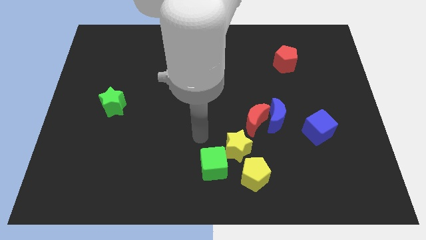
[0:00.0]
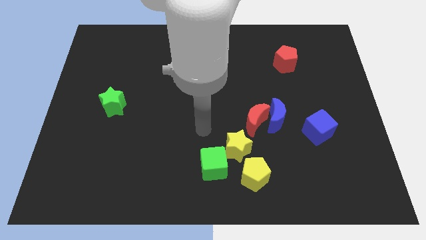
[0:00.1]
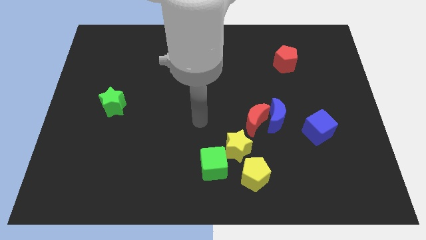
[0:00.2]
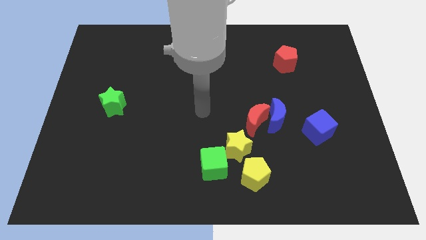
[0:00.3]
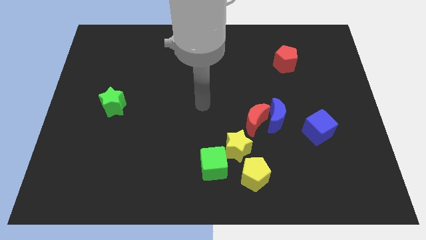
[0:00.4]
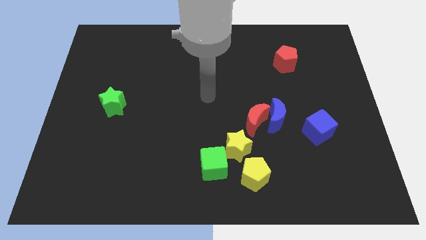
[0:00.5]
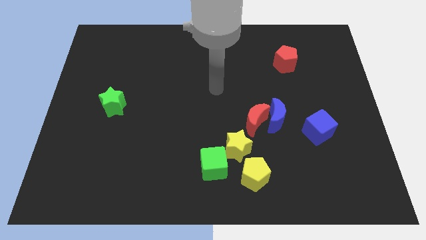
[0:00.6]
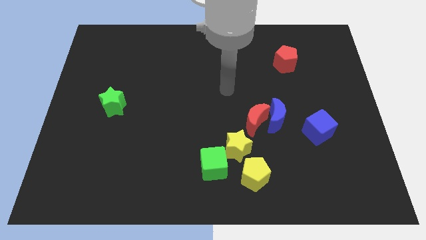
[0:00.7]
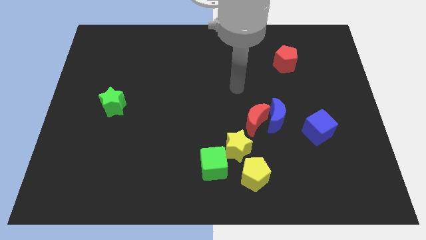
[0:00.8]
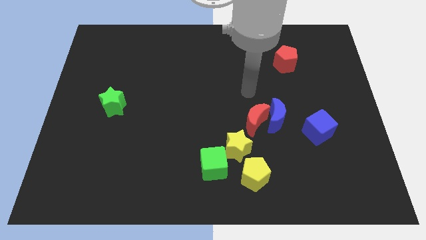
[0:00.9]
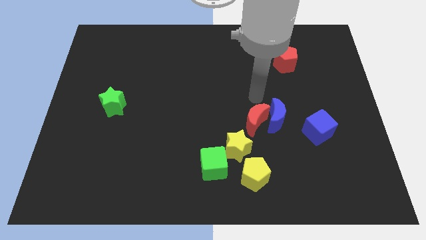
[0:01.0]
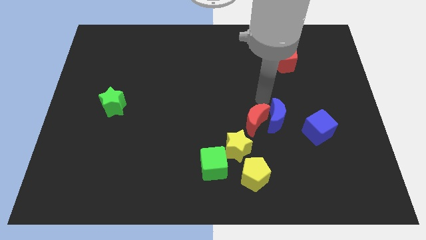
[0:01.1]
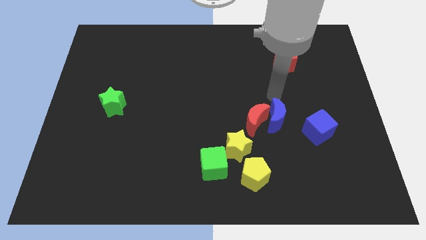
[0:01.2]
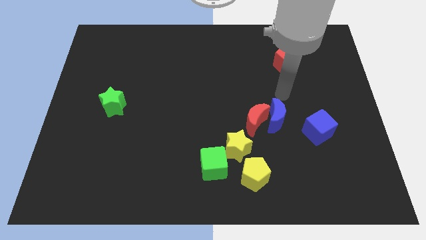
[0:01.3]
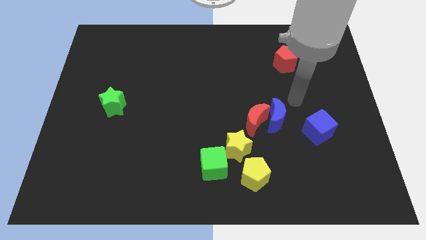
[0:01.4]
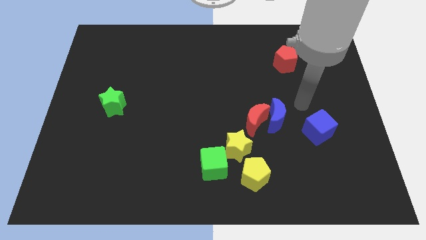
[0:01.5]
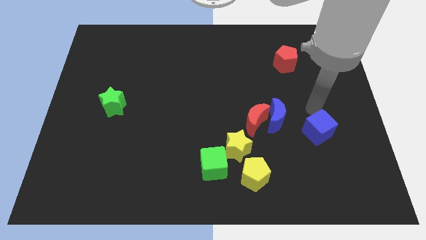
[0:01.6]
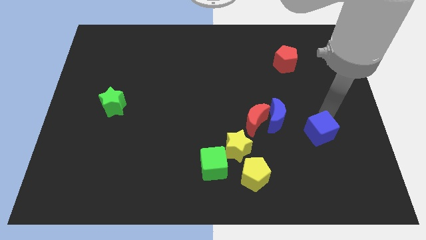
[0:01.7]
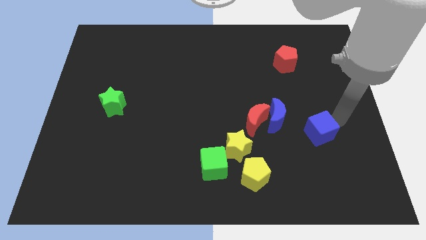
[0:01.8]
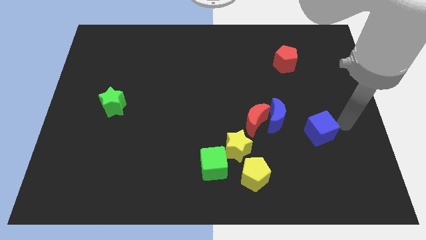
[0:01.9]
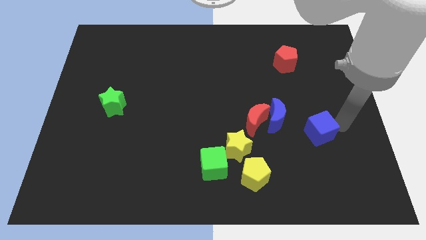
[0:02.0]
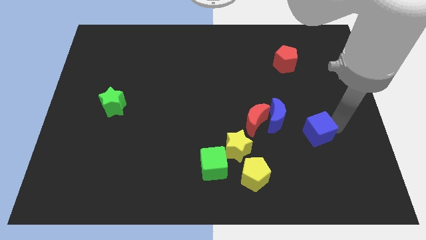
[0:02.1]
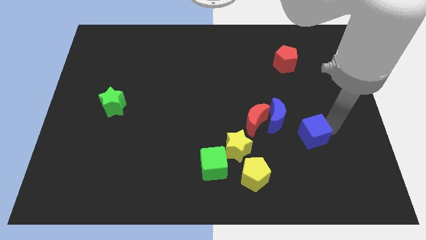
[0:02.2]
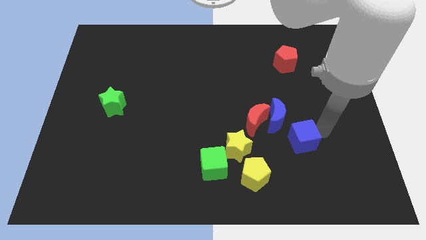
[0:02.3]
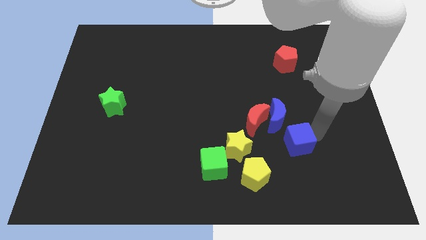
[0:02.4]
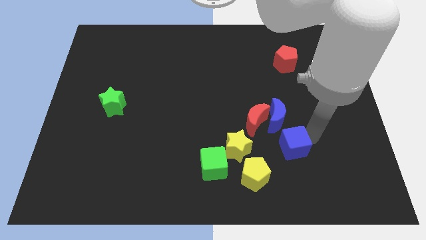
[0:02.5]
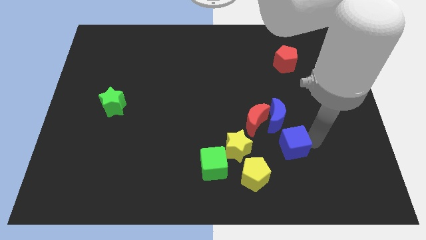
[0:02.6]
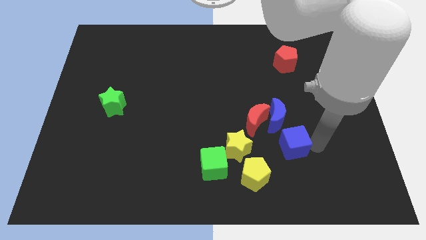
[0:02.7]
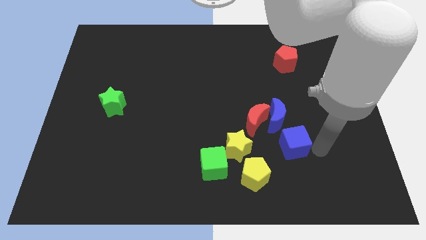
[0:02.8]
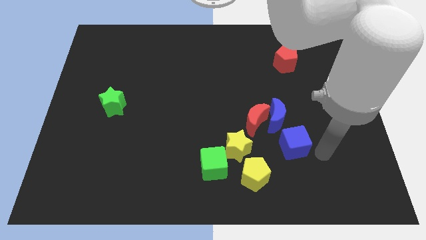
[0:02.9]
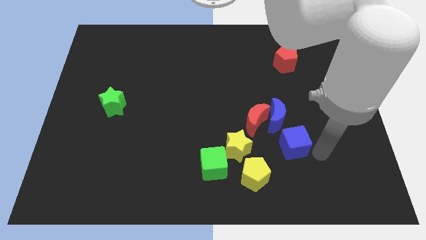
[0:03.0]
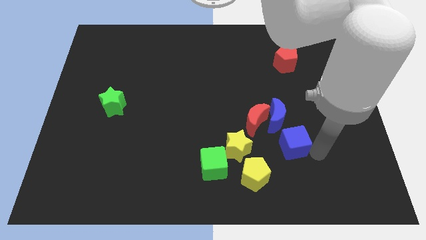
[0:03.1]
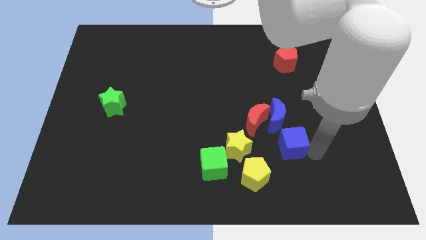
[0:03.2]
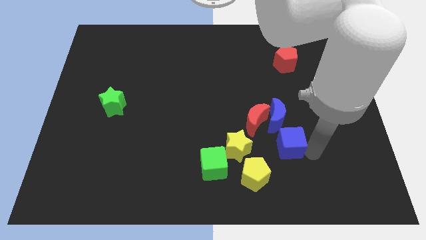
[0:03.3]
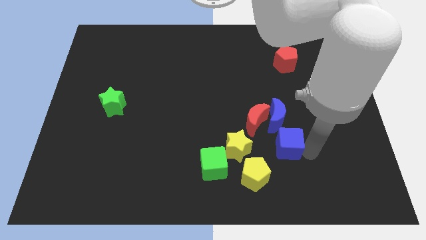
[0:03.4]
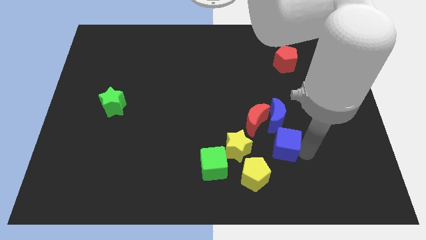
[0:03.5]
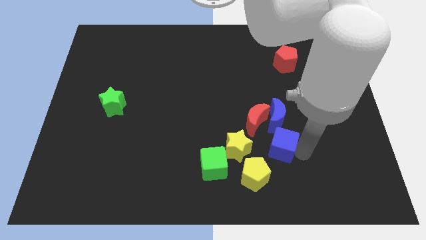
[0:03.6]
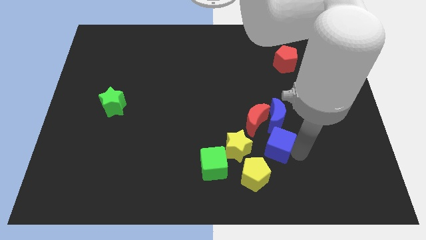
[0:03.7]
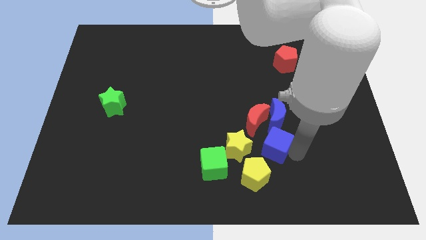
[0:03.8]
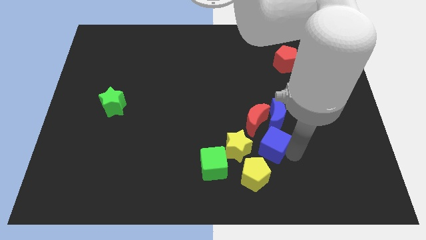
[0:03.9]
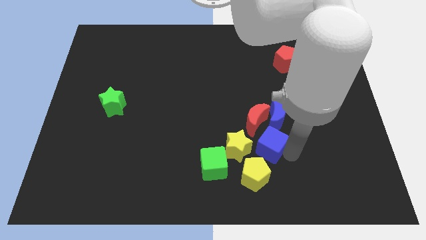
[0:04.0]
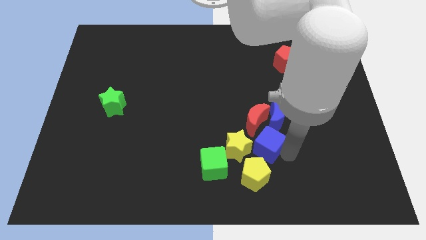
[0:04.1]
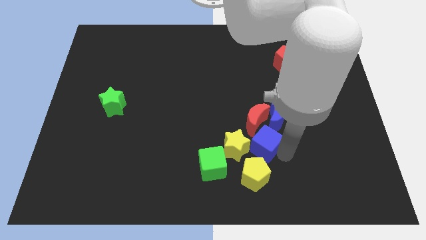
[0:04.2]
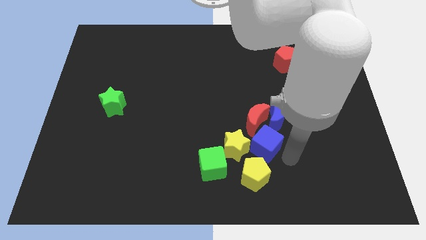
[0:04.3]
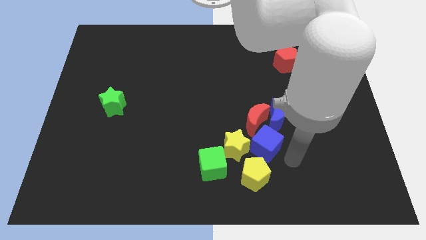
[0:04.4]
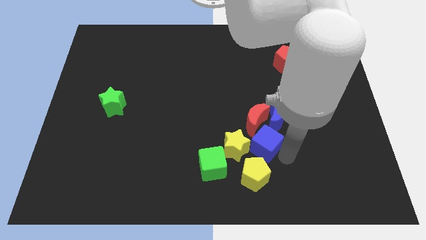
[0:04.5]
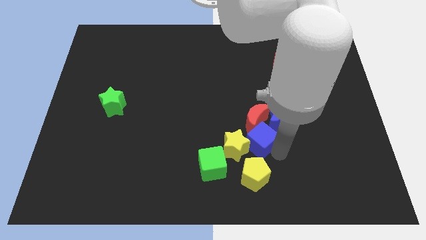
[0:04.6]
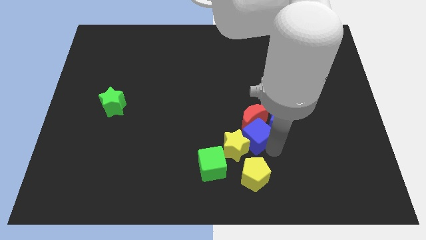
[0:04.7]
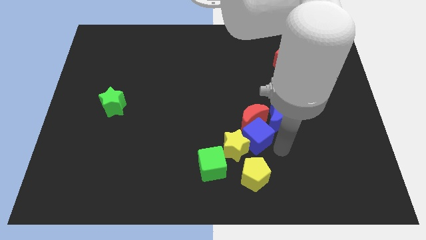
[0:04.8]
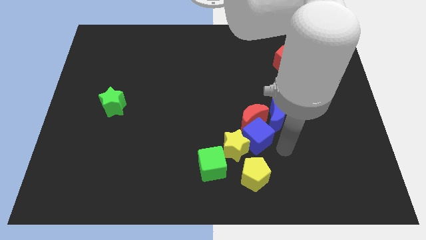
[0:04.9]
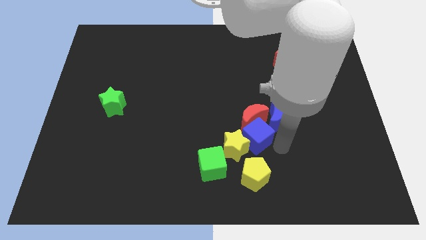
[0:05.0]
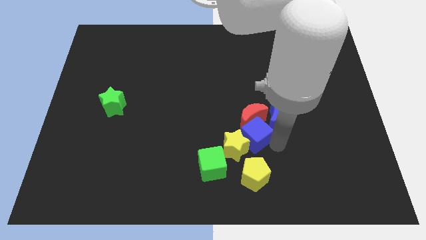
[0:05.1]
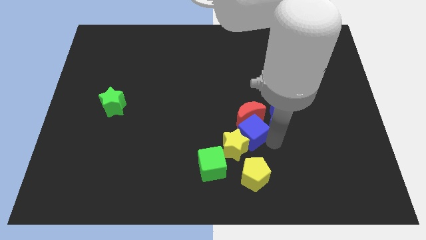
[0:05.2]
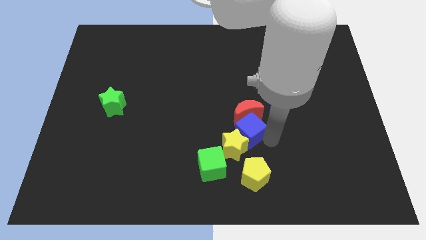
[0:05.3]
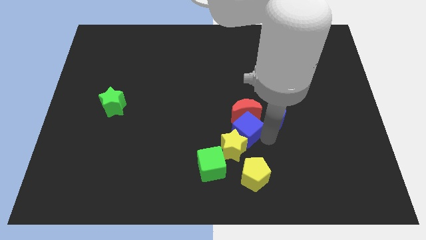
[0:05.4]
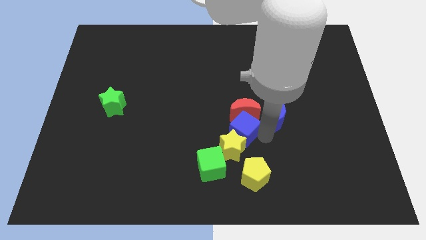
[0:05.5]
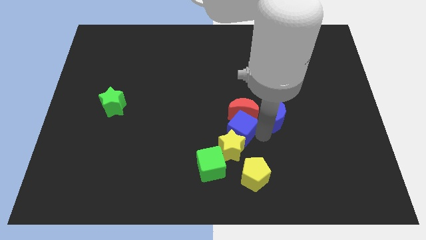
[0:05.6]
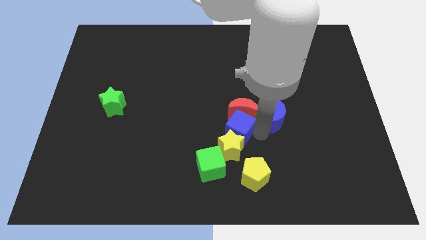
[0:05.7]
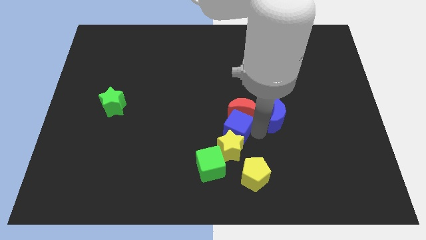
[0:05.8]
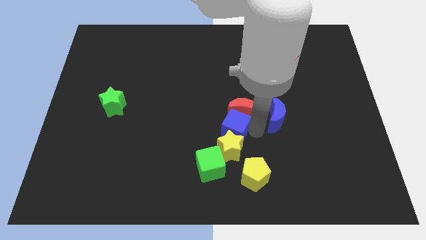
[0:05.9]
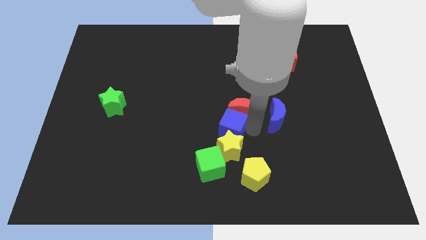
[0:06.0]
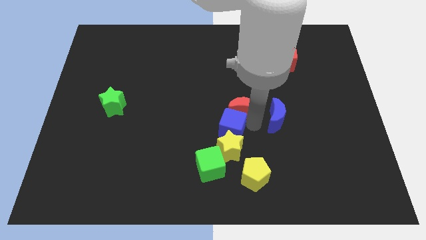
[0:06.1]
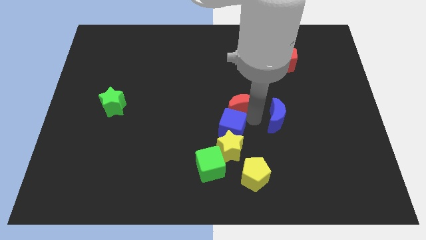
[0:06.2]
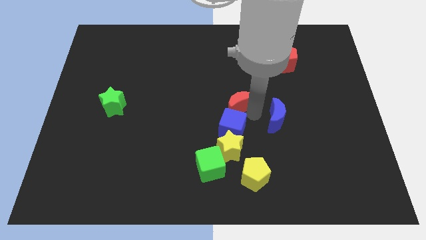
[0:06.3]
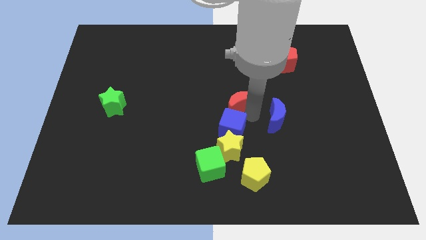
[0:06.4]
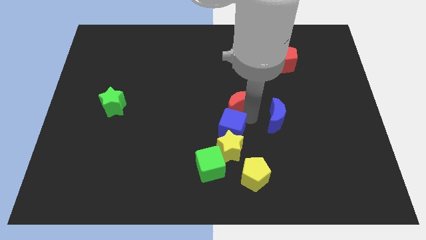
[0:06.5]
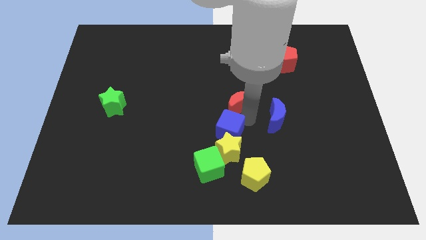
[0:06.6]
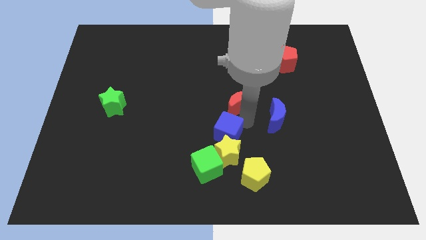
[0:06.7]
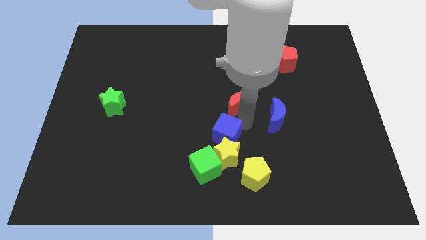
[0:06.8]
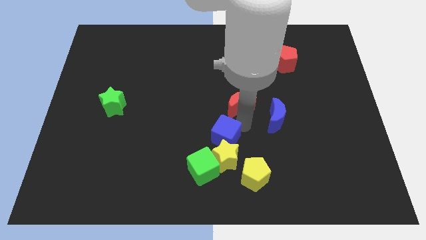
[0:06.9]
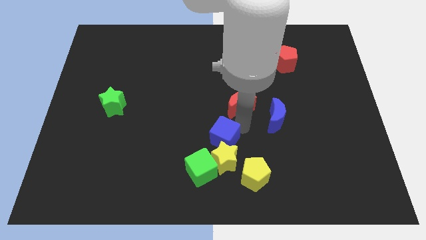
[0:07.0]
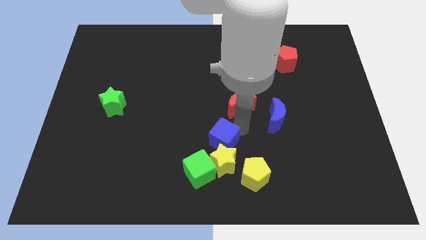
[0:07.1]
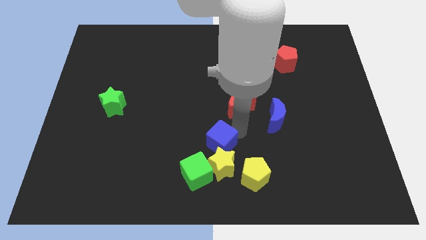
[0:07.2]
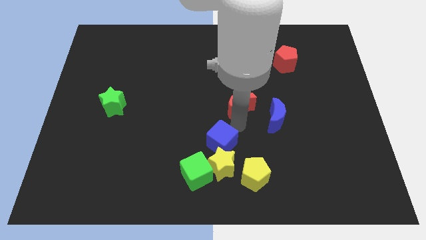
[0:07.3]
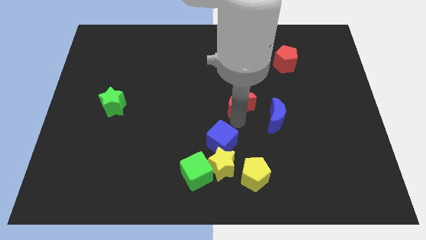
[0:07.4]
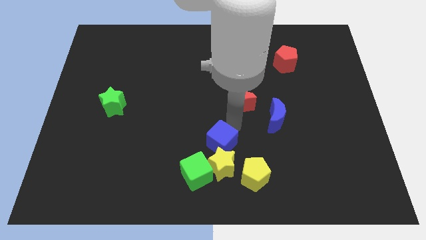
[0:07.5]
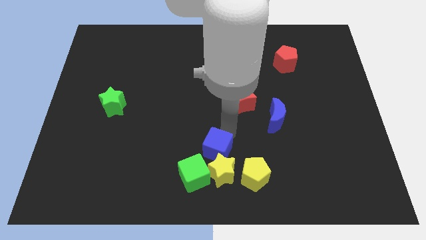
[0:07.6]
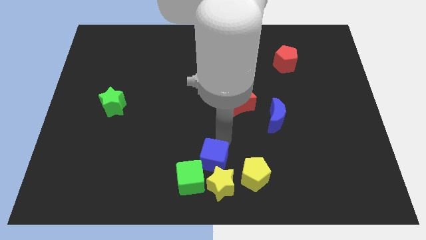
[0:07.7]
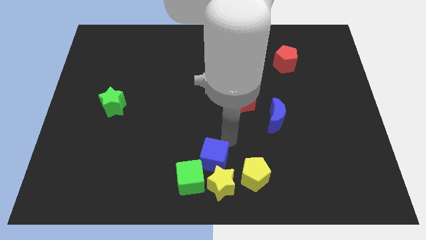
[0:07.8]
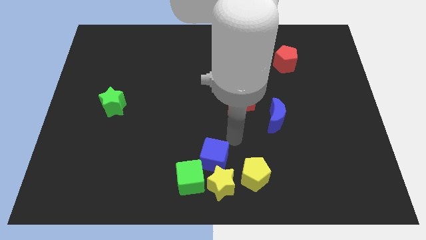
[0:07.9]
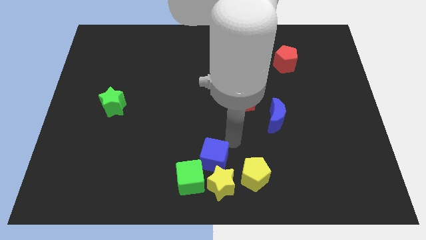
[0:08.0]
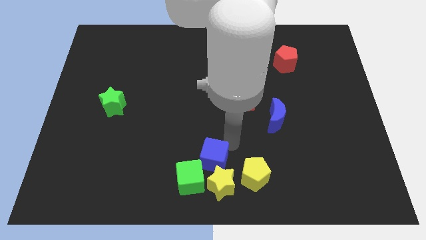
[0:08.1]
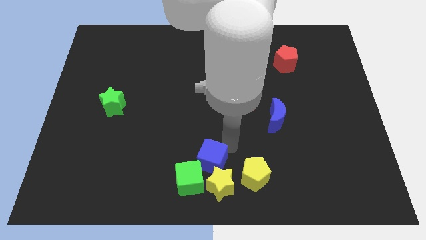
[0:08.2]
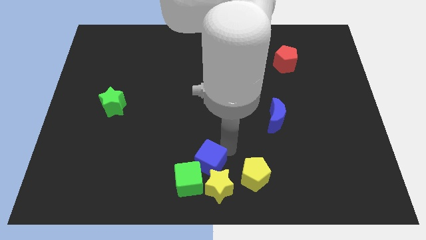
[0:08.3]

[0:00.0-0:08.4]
move the blue cube towards the green cube
